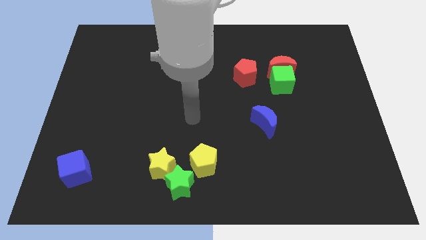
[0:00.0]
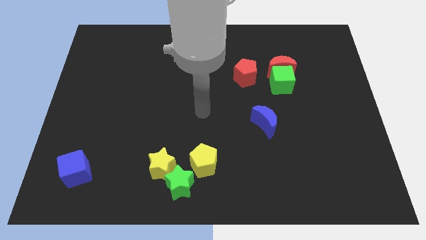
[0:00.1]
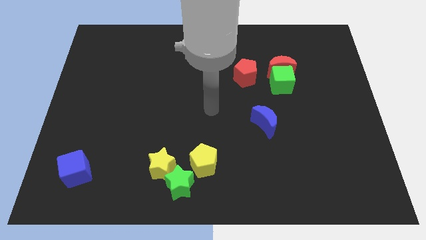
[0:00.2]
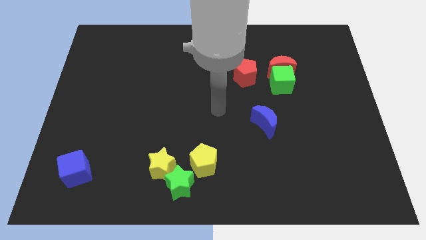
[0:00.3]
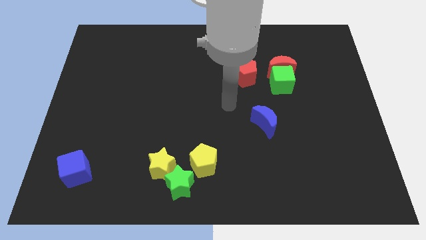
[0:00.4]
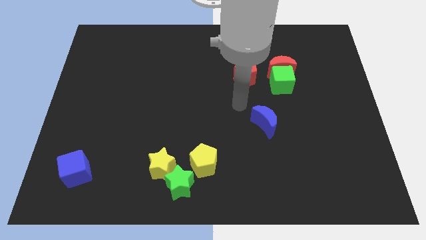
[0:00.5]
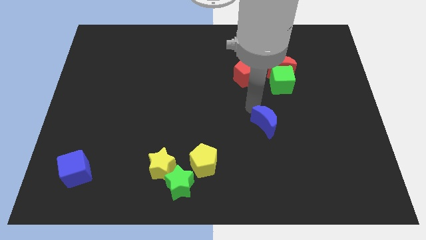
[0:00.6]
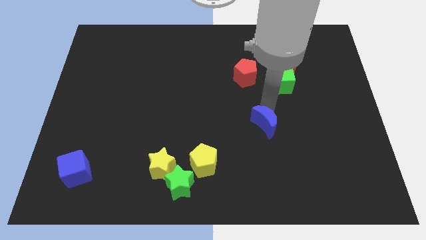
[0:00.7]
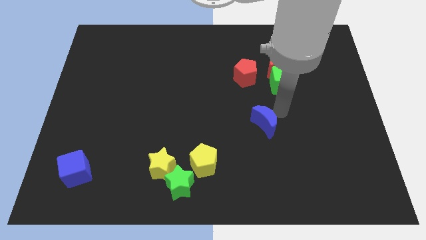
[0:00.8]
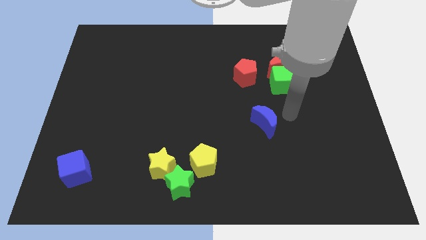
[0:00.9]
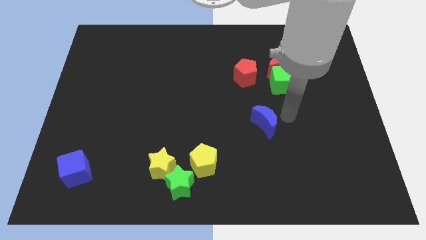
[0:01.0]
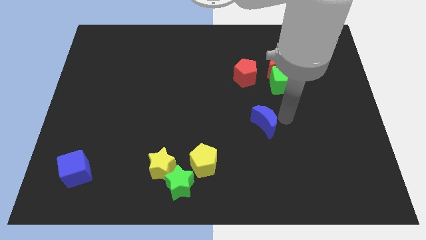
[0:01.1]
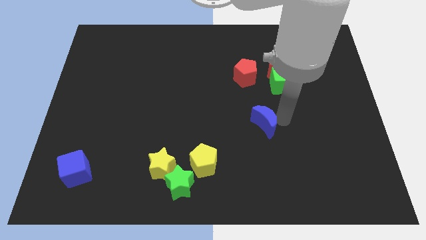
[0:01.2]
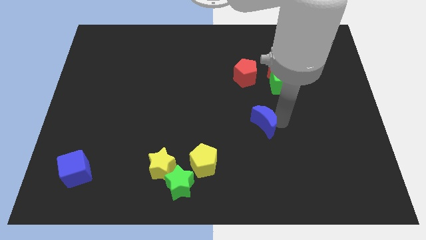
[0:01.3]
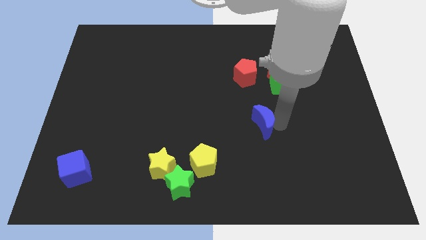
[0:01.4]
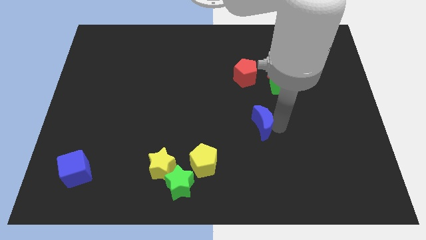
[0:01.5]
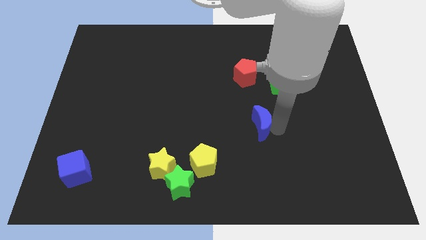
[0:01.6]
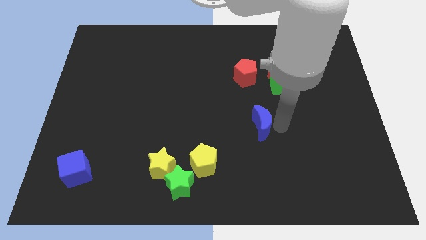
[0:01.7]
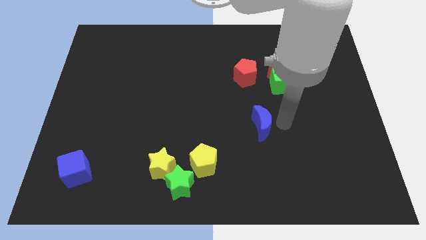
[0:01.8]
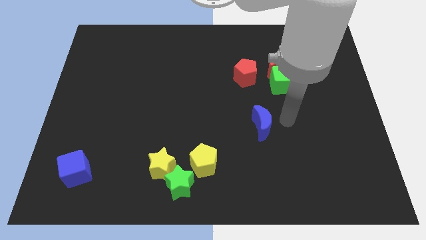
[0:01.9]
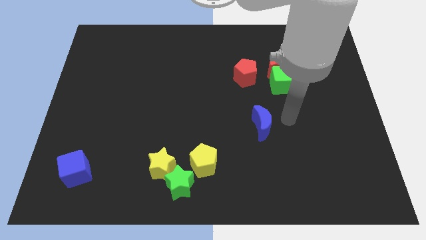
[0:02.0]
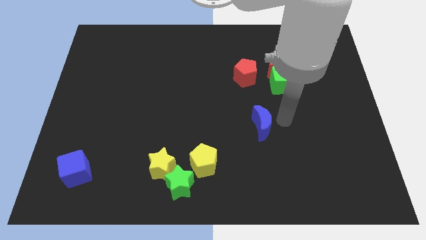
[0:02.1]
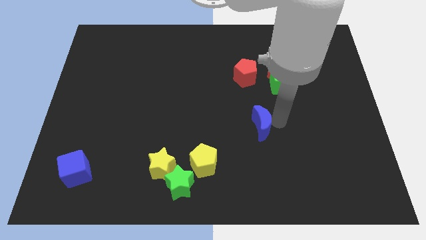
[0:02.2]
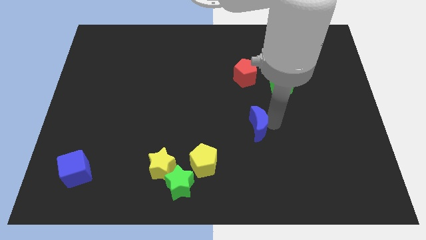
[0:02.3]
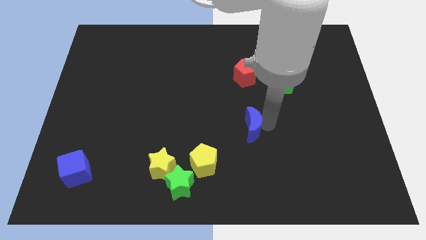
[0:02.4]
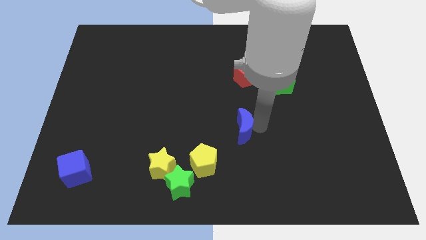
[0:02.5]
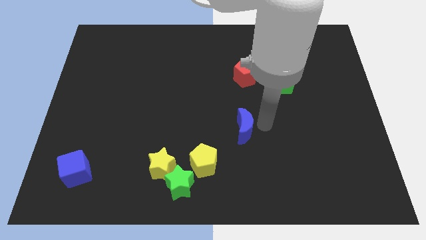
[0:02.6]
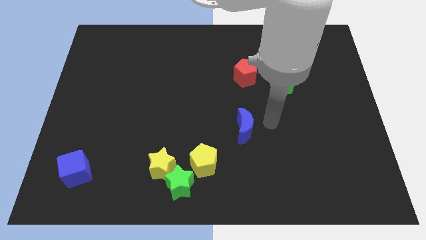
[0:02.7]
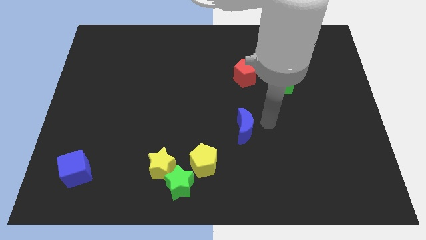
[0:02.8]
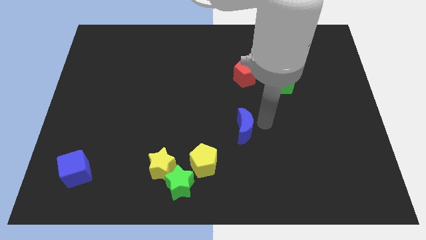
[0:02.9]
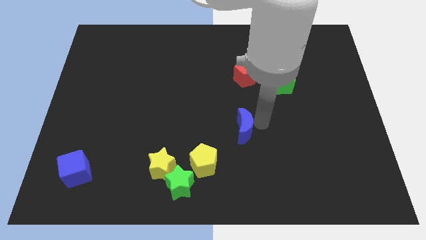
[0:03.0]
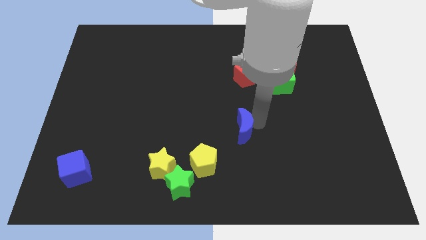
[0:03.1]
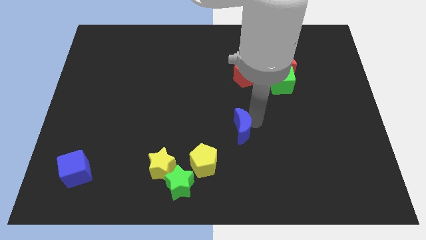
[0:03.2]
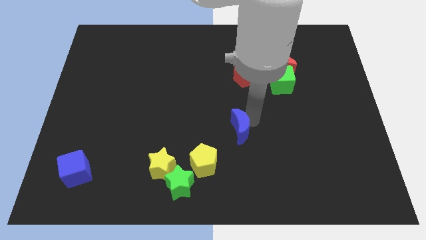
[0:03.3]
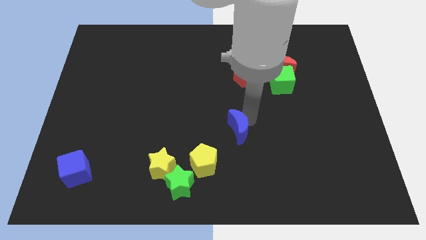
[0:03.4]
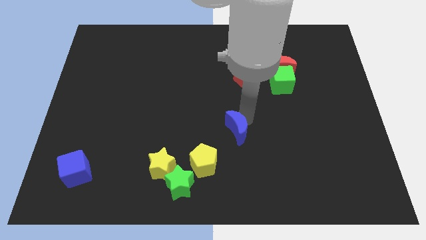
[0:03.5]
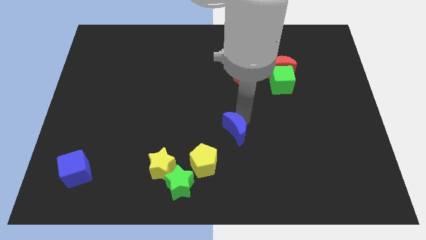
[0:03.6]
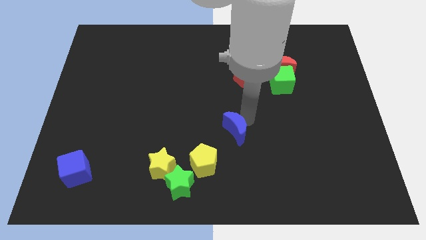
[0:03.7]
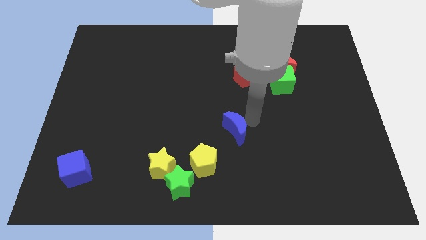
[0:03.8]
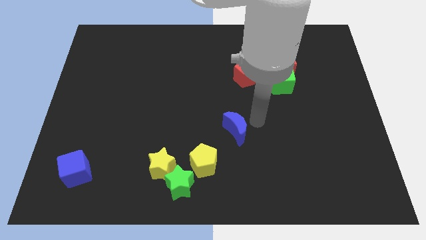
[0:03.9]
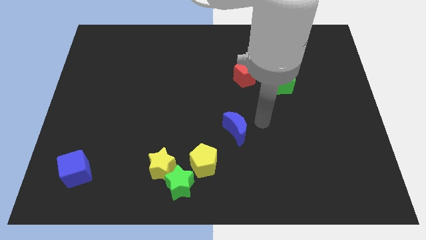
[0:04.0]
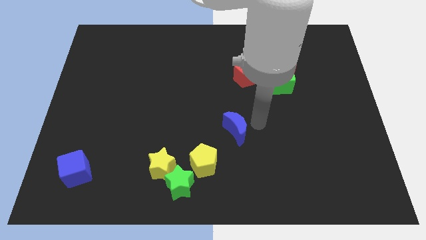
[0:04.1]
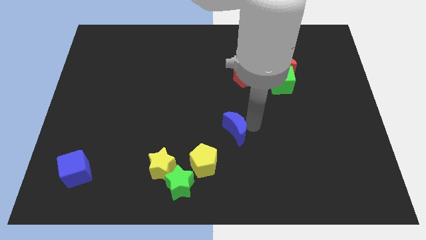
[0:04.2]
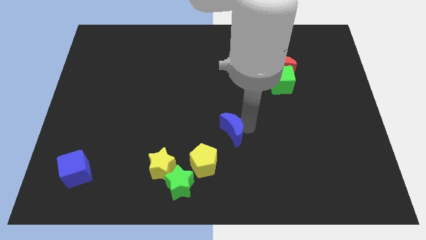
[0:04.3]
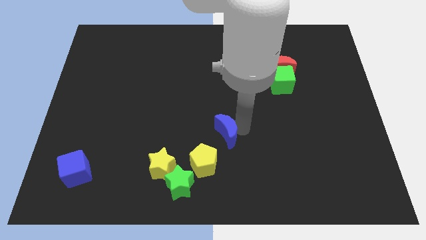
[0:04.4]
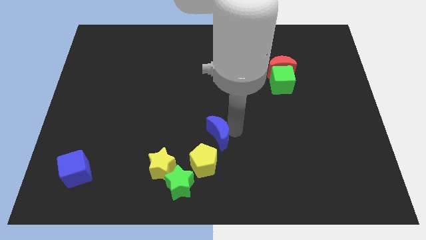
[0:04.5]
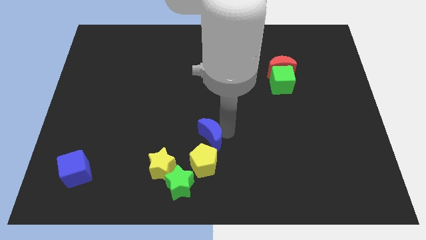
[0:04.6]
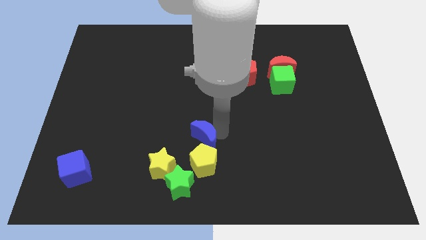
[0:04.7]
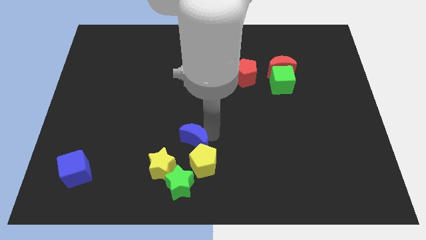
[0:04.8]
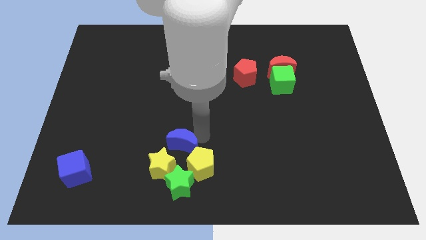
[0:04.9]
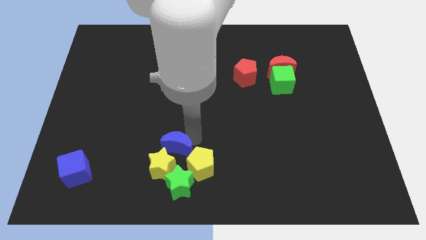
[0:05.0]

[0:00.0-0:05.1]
slide the blue moon close to the yellow star

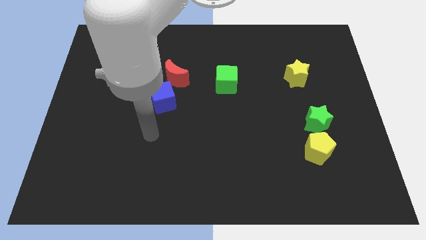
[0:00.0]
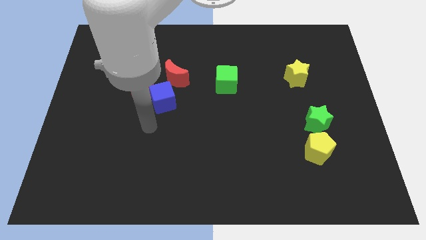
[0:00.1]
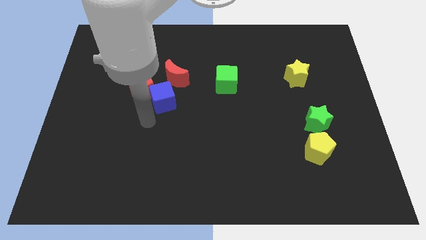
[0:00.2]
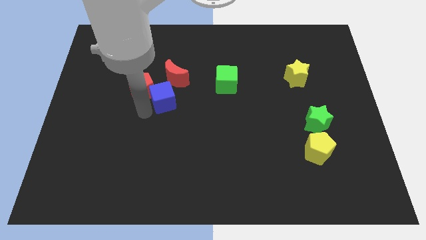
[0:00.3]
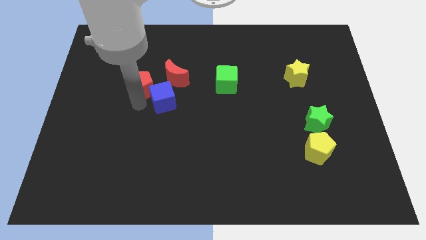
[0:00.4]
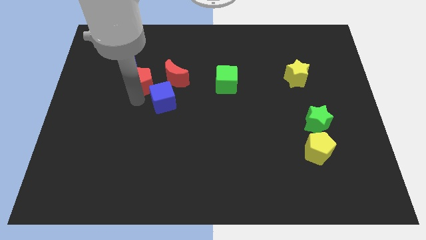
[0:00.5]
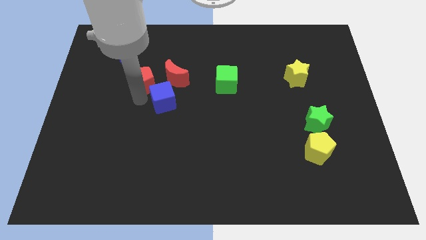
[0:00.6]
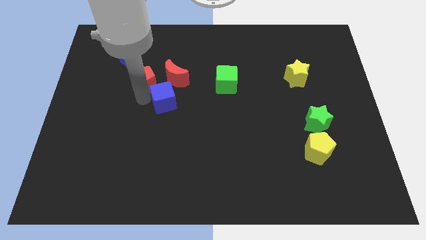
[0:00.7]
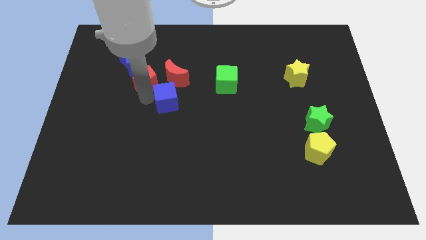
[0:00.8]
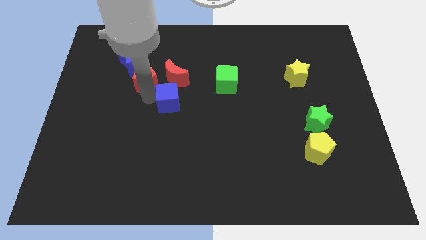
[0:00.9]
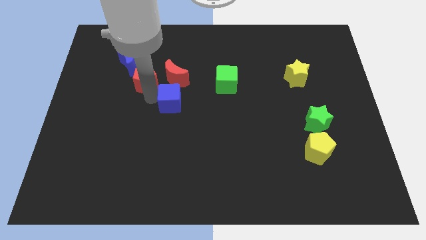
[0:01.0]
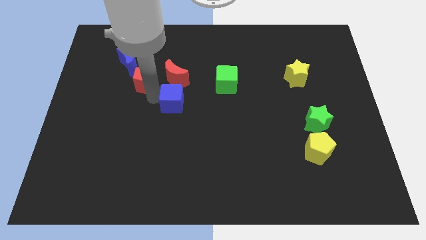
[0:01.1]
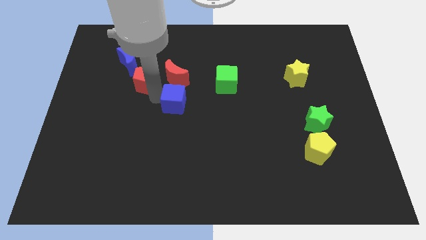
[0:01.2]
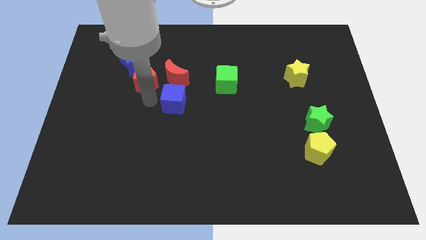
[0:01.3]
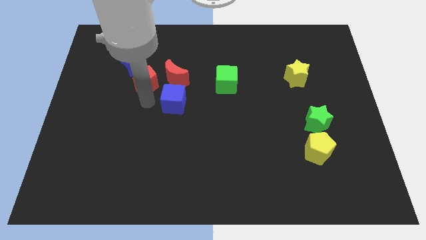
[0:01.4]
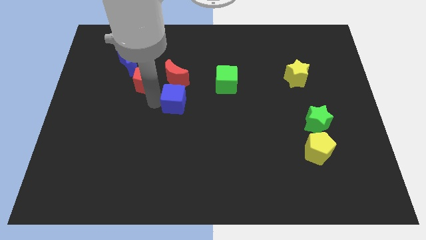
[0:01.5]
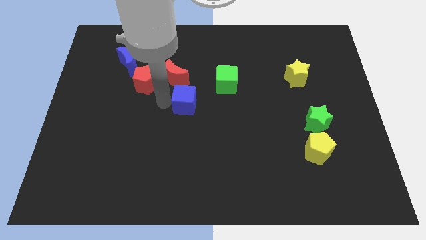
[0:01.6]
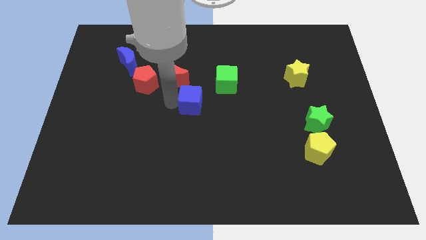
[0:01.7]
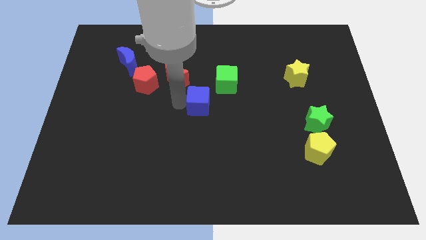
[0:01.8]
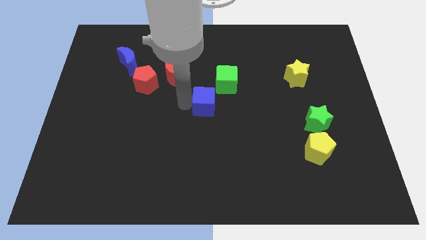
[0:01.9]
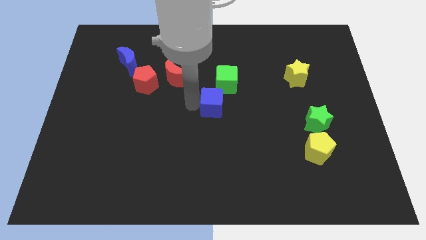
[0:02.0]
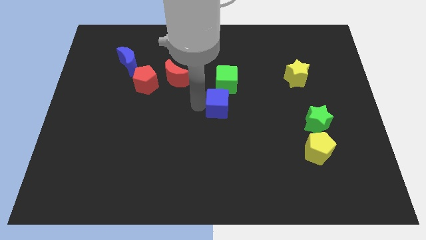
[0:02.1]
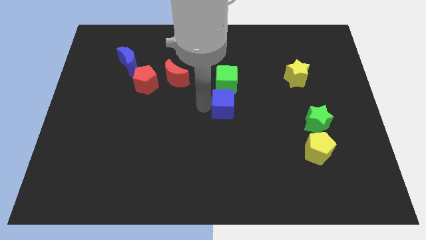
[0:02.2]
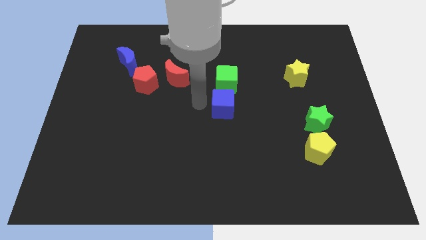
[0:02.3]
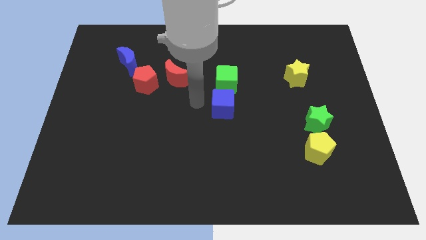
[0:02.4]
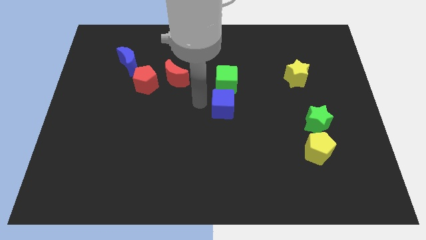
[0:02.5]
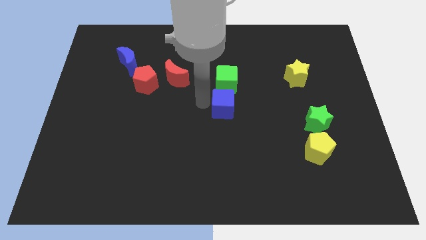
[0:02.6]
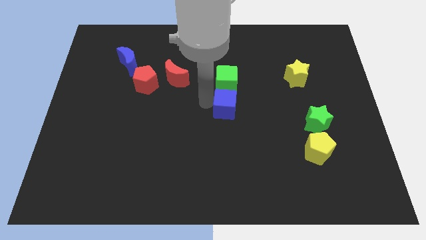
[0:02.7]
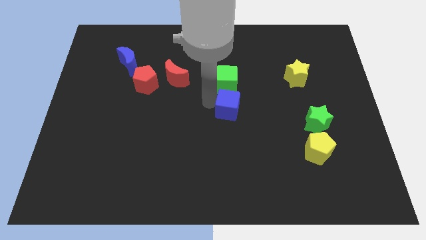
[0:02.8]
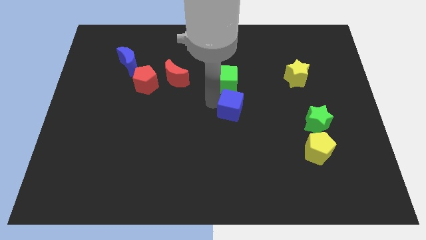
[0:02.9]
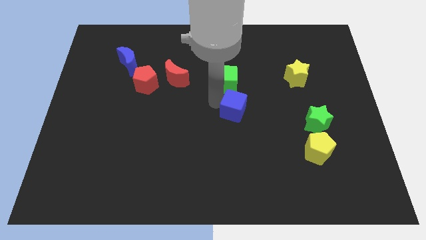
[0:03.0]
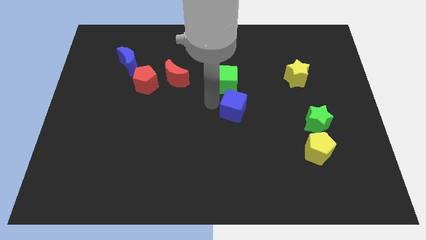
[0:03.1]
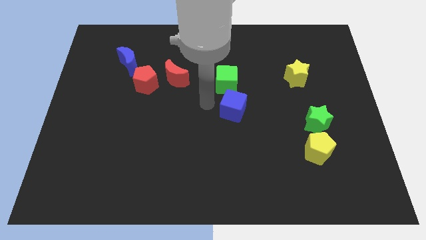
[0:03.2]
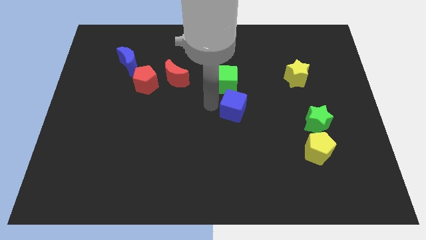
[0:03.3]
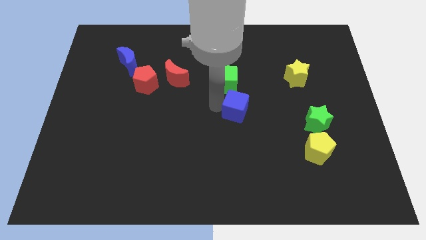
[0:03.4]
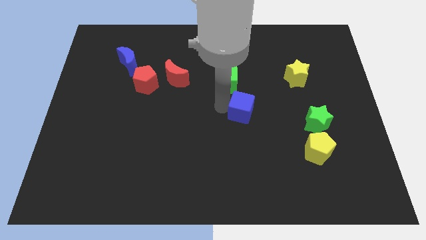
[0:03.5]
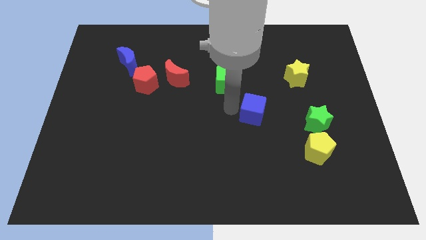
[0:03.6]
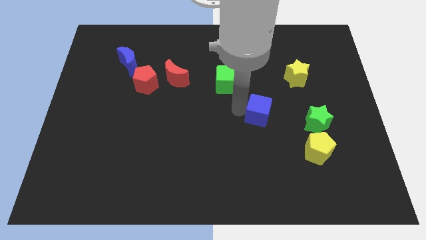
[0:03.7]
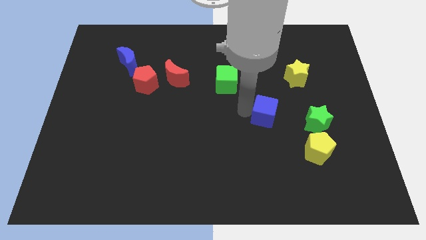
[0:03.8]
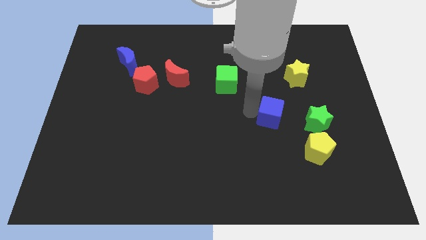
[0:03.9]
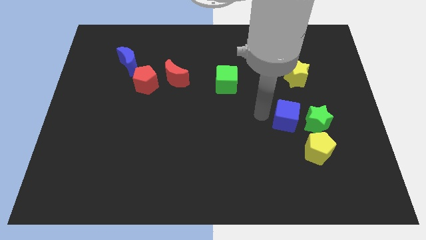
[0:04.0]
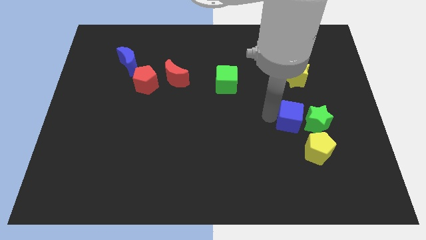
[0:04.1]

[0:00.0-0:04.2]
put the blue cube next to the green star
